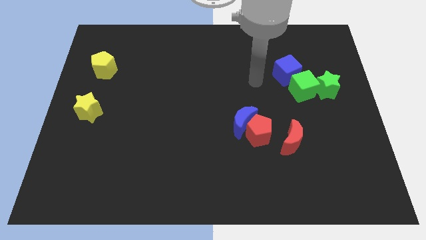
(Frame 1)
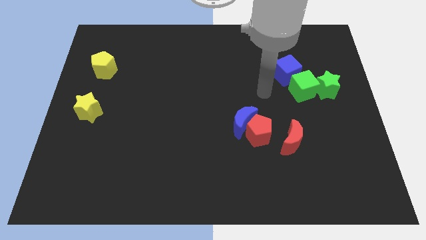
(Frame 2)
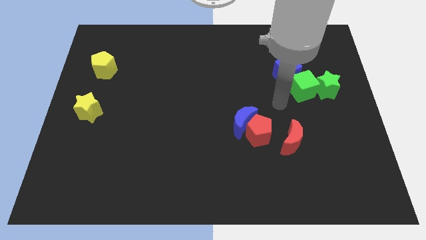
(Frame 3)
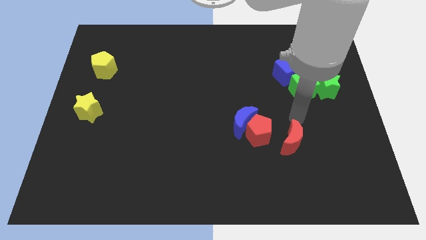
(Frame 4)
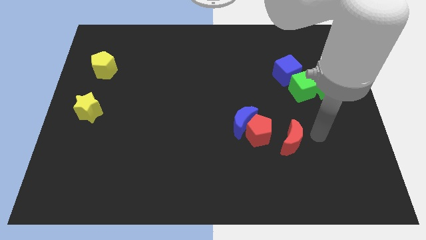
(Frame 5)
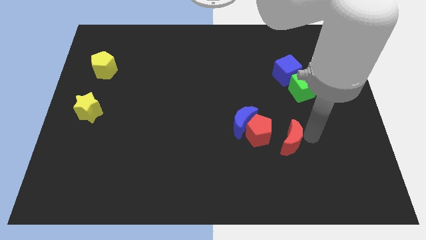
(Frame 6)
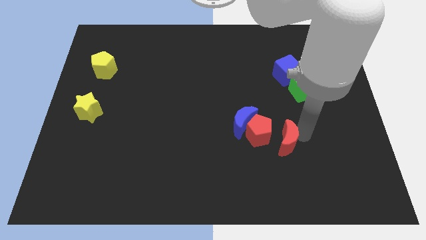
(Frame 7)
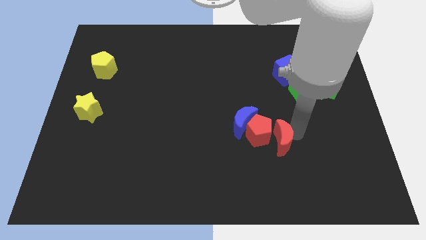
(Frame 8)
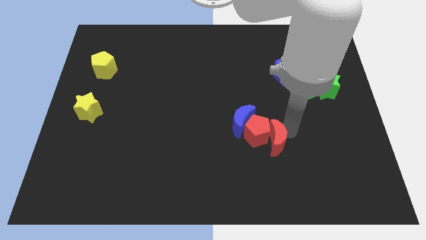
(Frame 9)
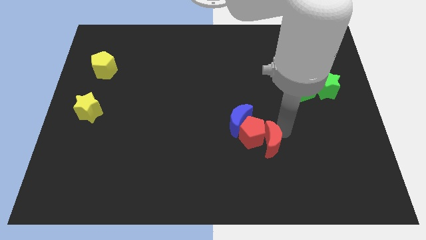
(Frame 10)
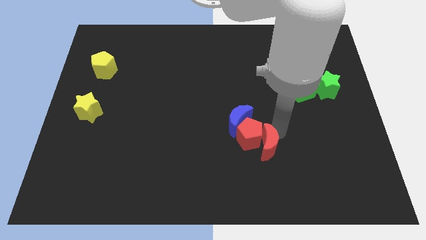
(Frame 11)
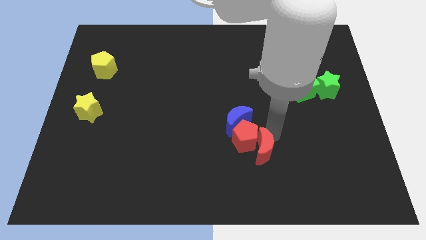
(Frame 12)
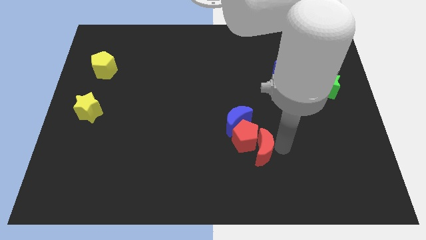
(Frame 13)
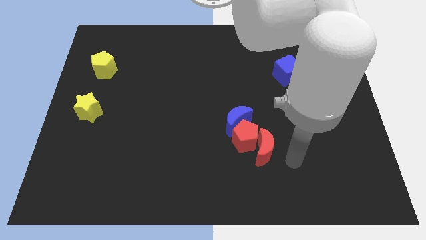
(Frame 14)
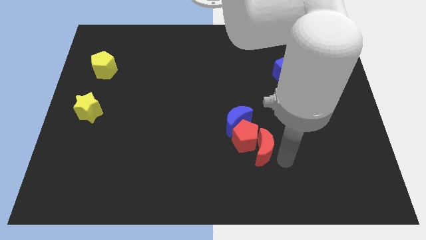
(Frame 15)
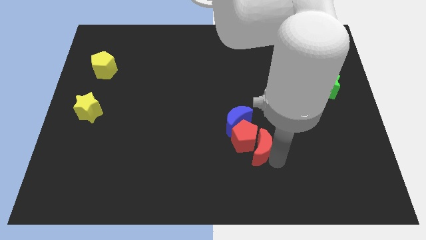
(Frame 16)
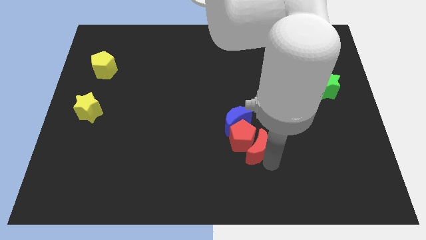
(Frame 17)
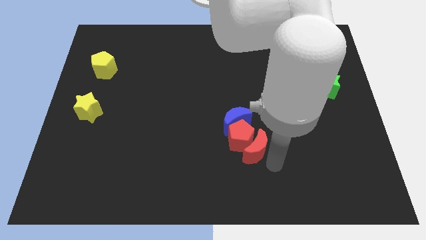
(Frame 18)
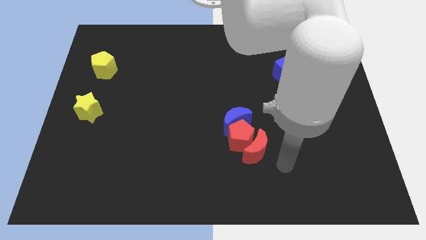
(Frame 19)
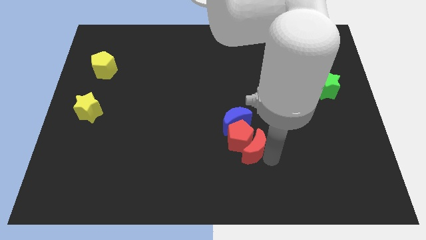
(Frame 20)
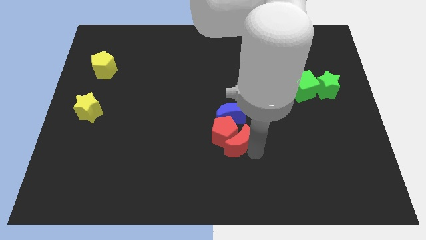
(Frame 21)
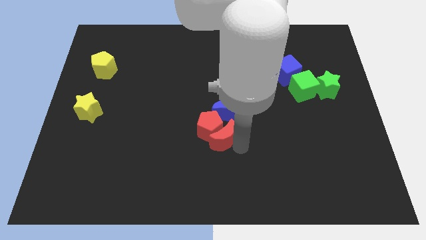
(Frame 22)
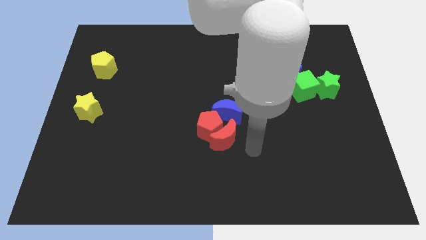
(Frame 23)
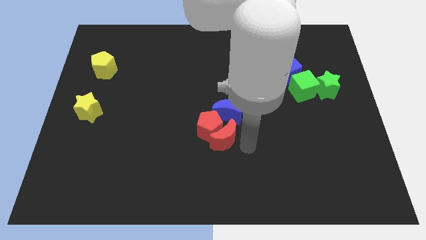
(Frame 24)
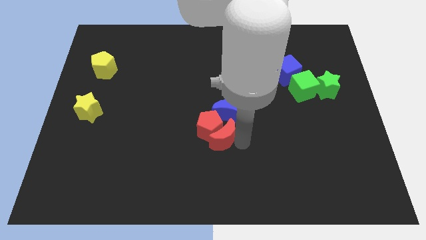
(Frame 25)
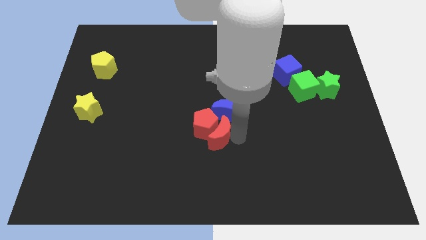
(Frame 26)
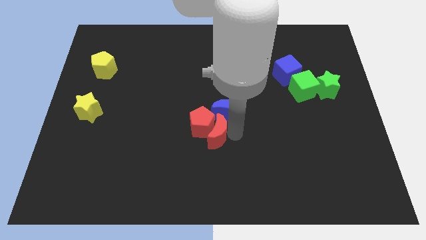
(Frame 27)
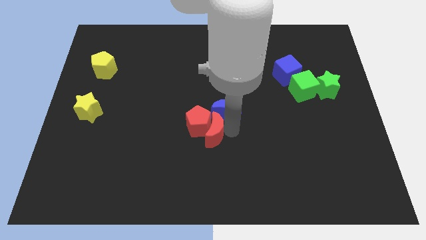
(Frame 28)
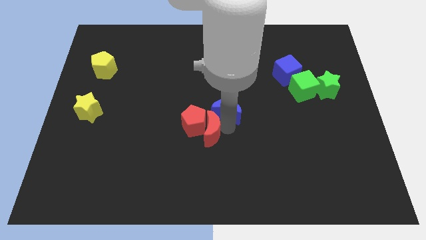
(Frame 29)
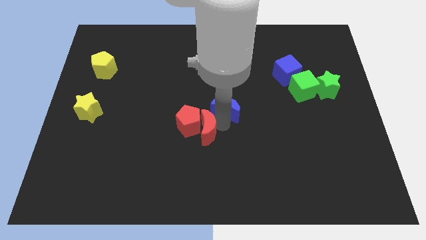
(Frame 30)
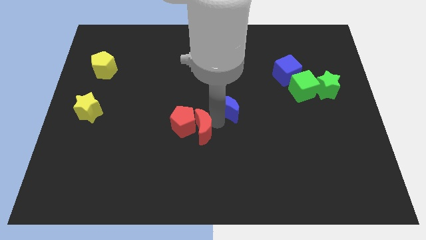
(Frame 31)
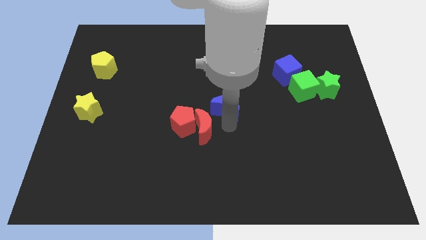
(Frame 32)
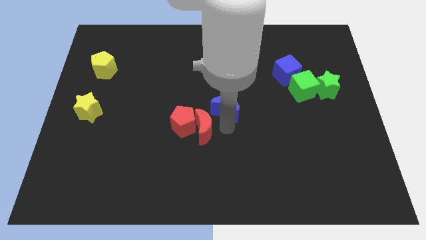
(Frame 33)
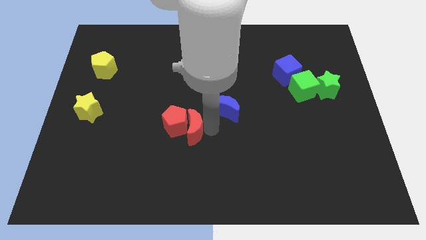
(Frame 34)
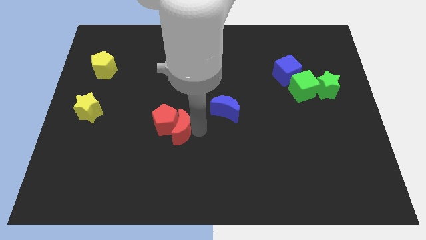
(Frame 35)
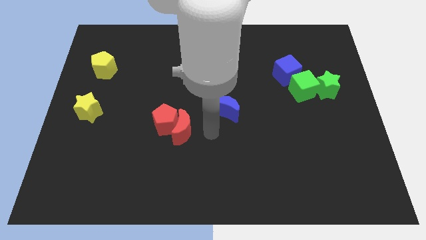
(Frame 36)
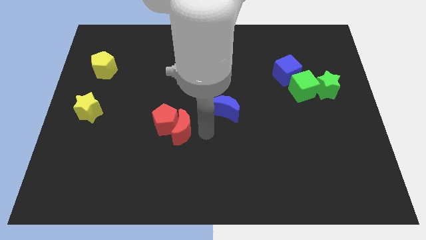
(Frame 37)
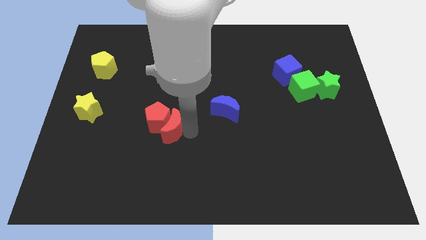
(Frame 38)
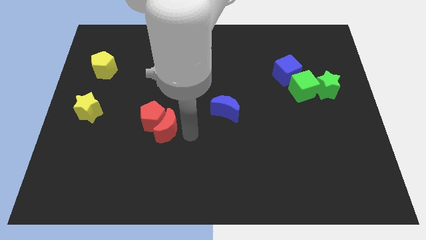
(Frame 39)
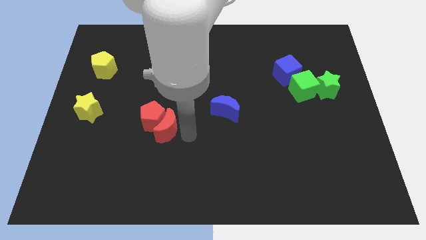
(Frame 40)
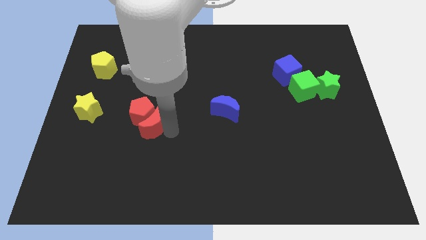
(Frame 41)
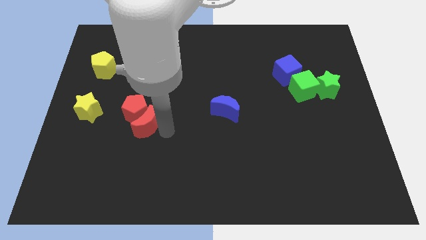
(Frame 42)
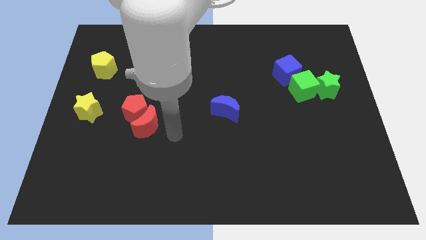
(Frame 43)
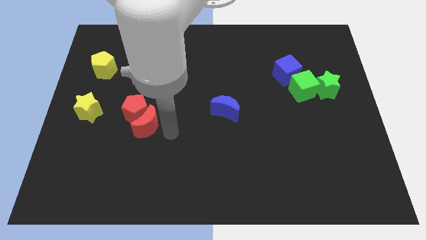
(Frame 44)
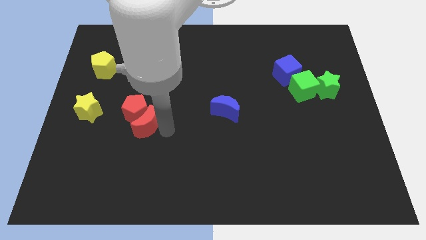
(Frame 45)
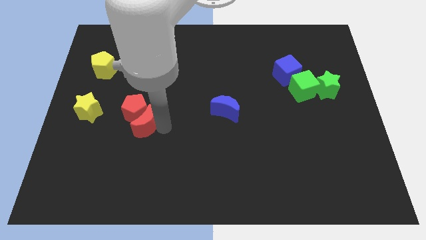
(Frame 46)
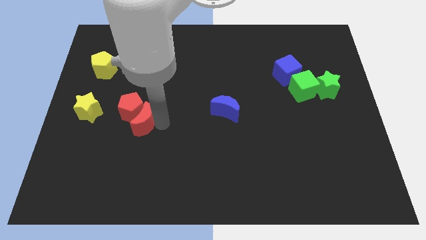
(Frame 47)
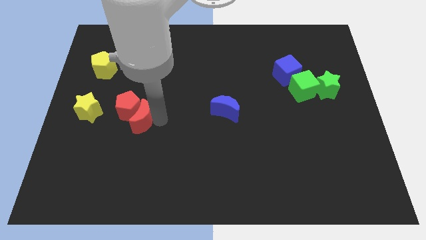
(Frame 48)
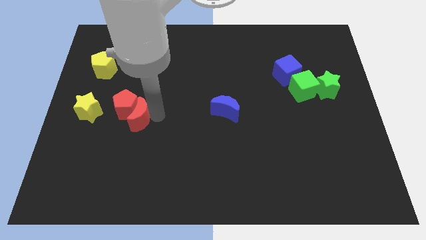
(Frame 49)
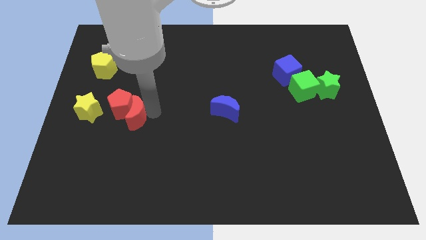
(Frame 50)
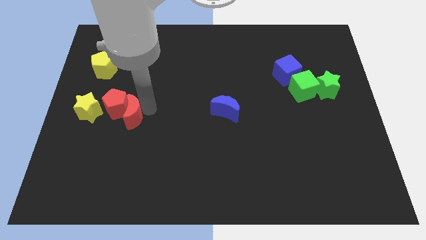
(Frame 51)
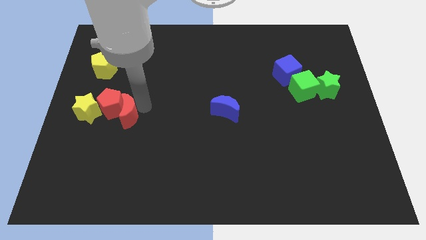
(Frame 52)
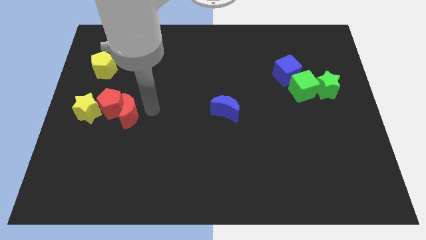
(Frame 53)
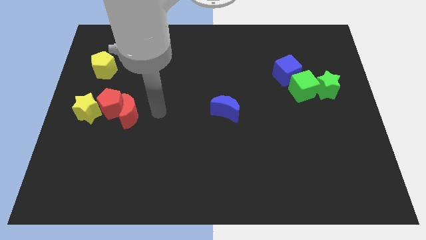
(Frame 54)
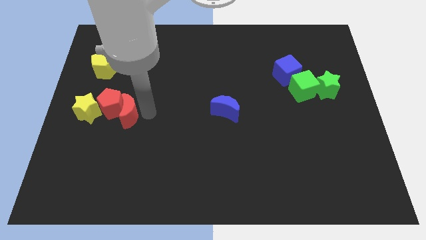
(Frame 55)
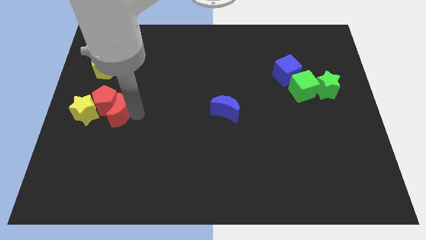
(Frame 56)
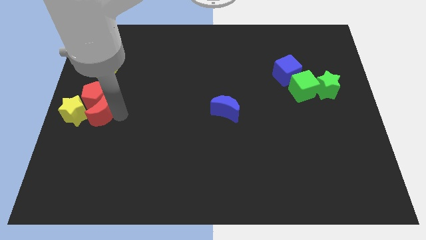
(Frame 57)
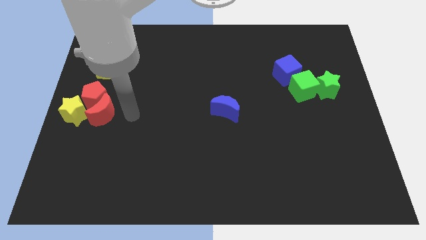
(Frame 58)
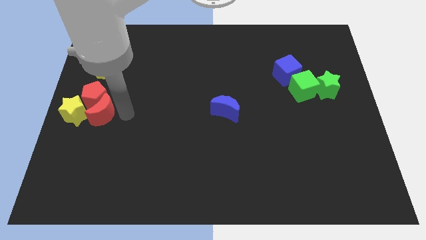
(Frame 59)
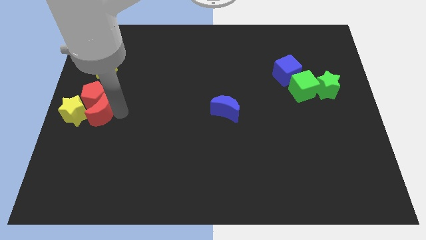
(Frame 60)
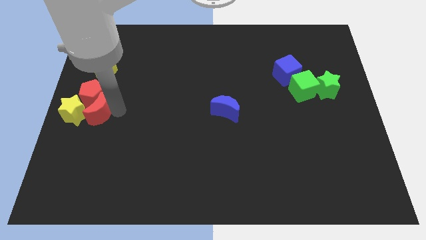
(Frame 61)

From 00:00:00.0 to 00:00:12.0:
push the red moon next to the yellow star

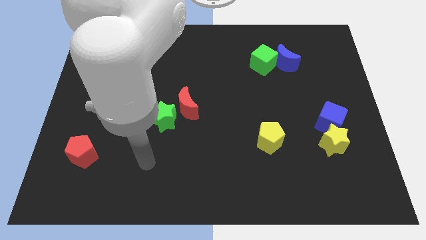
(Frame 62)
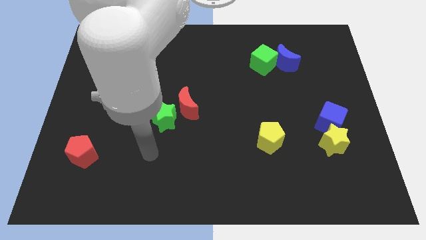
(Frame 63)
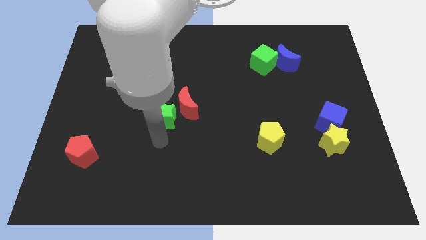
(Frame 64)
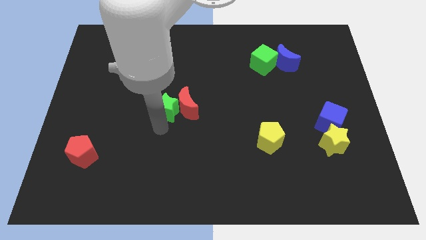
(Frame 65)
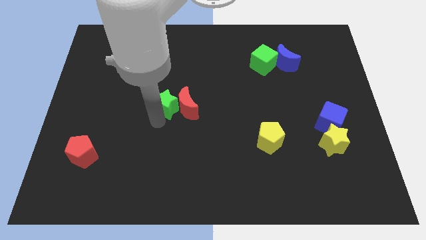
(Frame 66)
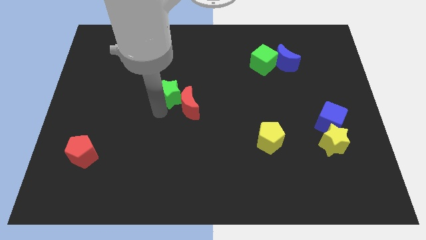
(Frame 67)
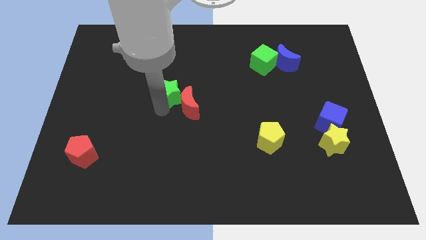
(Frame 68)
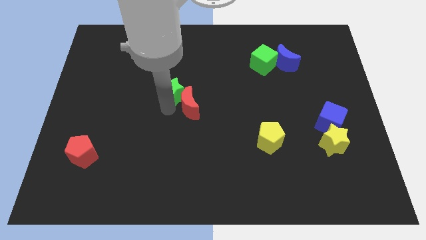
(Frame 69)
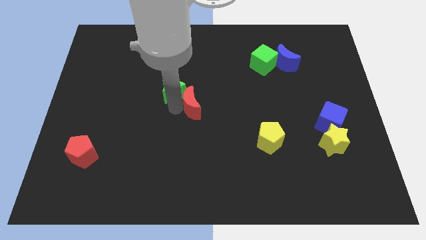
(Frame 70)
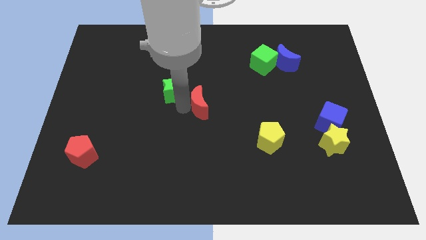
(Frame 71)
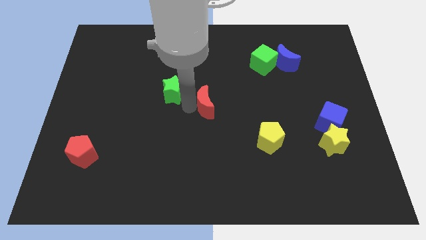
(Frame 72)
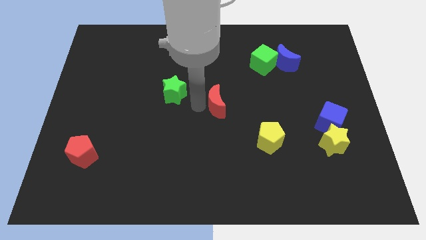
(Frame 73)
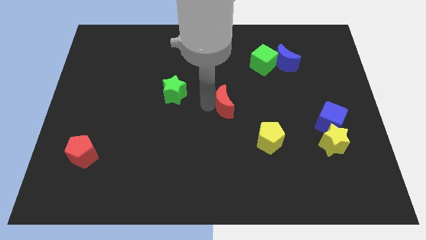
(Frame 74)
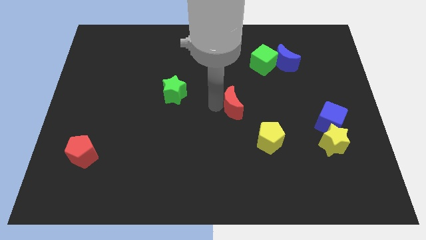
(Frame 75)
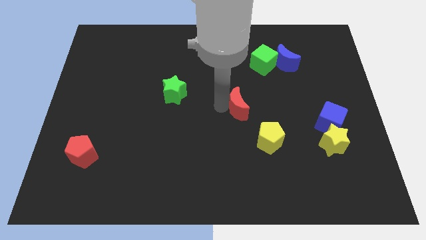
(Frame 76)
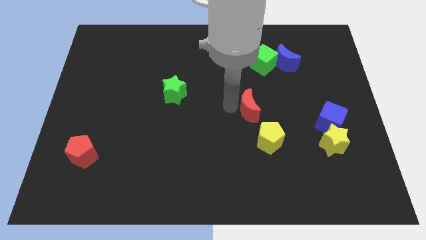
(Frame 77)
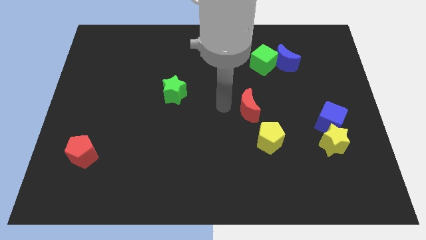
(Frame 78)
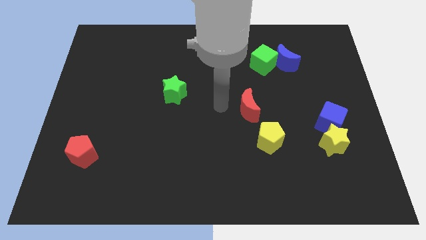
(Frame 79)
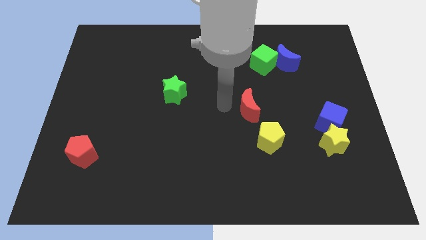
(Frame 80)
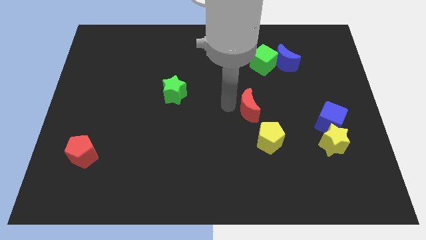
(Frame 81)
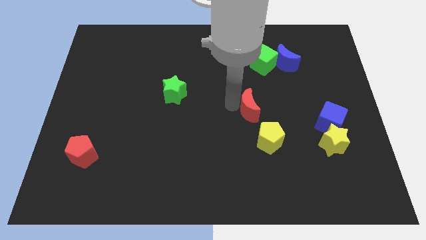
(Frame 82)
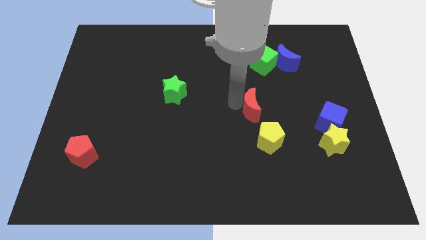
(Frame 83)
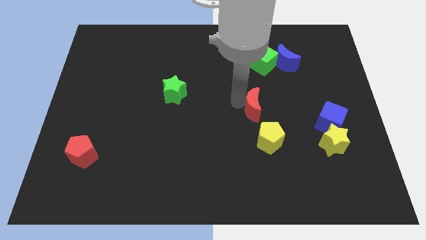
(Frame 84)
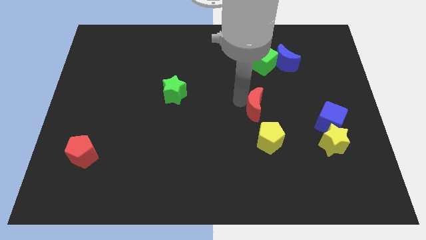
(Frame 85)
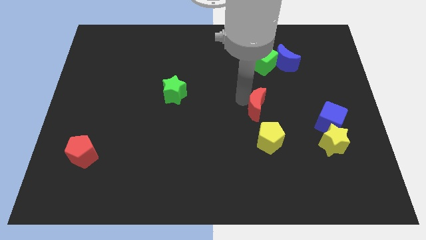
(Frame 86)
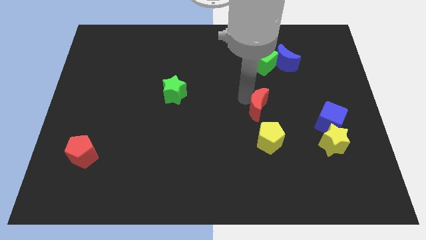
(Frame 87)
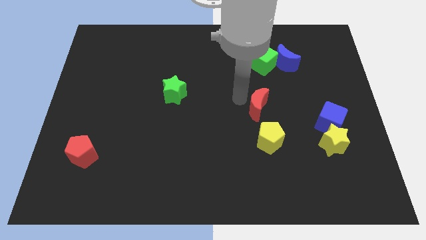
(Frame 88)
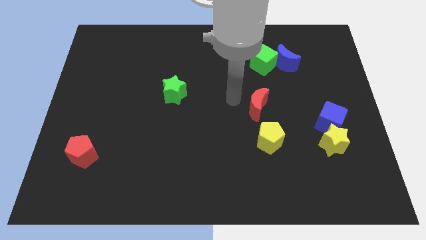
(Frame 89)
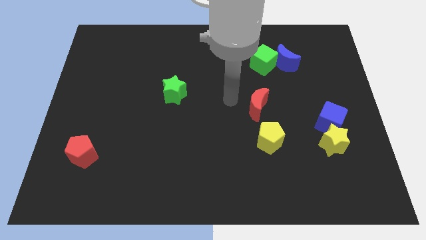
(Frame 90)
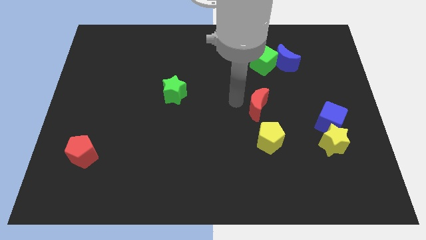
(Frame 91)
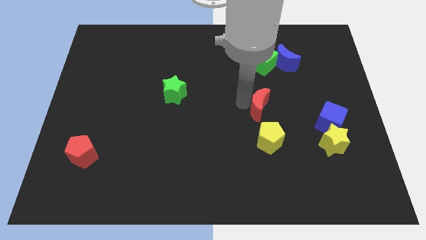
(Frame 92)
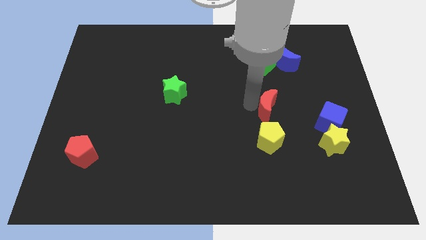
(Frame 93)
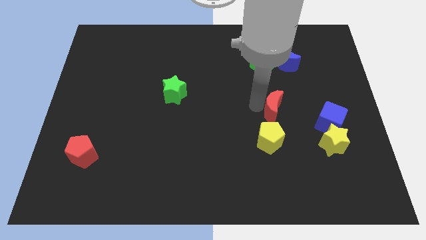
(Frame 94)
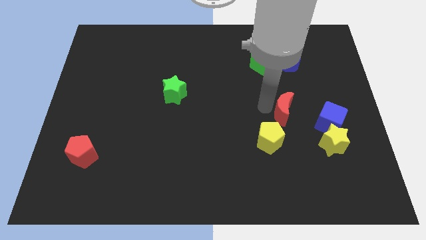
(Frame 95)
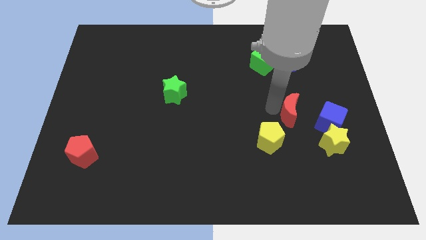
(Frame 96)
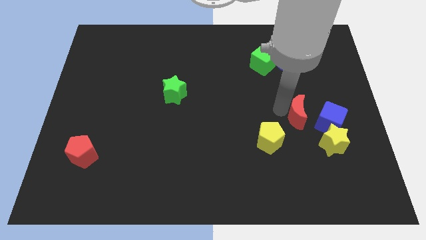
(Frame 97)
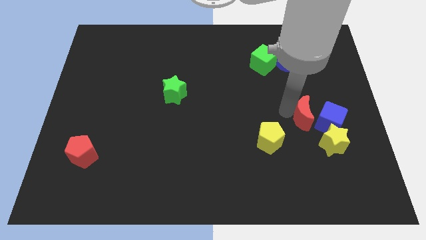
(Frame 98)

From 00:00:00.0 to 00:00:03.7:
put the red moon towards the blue cube
